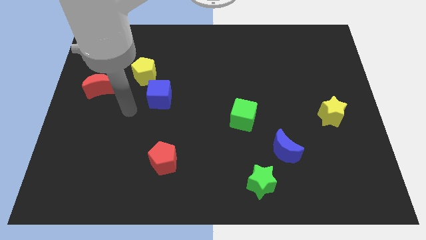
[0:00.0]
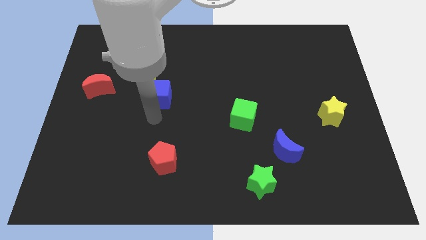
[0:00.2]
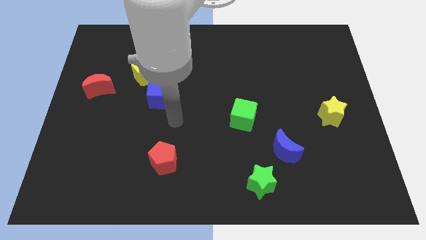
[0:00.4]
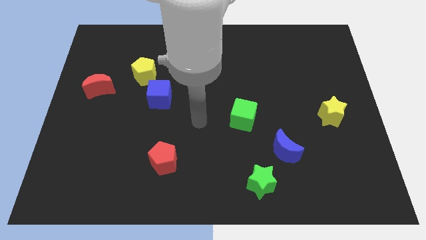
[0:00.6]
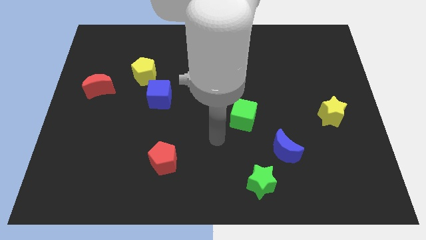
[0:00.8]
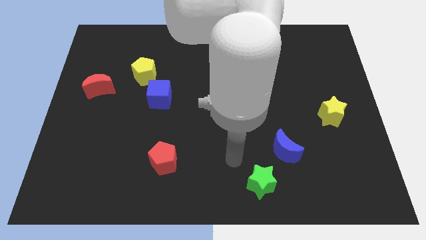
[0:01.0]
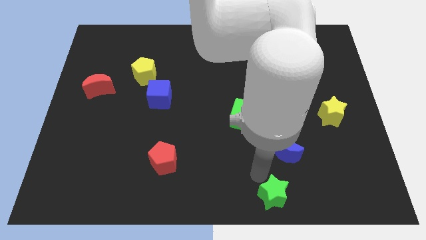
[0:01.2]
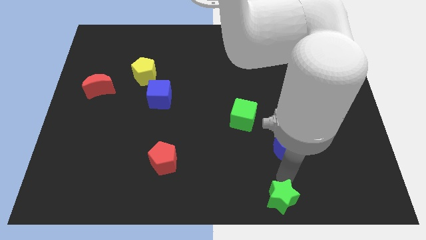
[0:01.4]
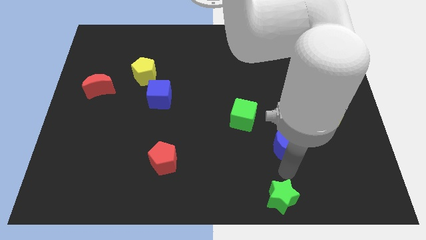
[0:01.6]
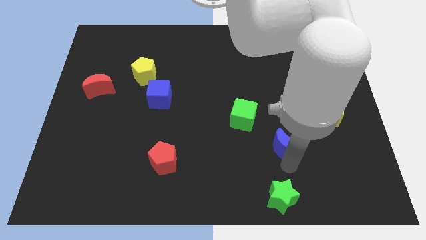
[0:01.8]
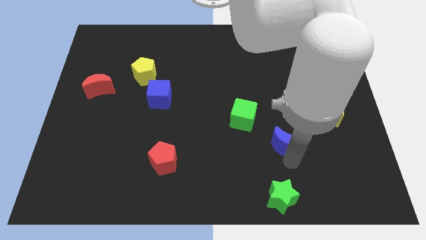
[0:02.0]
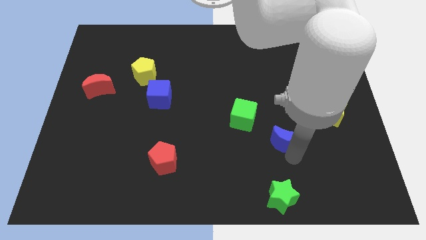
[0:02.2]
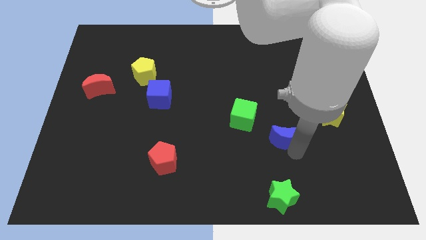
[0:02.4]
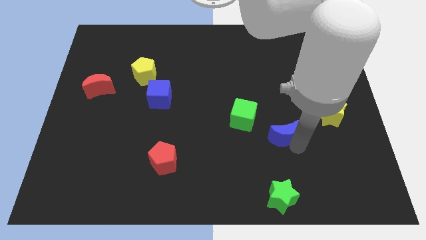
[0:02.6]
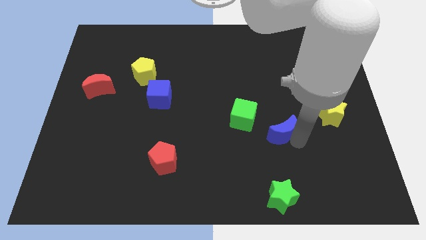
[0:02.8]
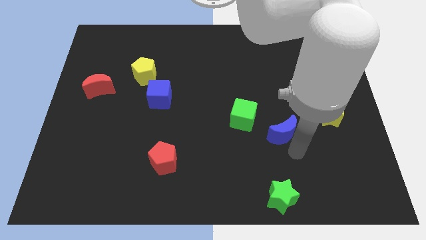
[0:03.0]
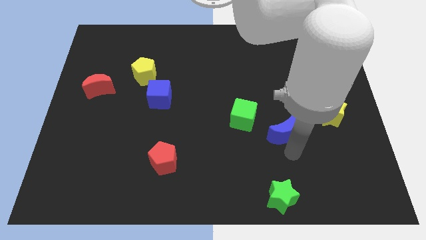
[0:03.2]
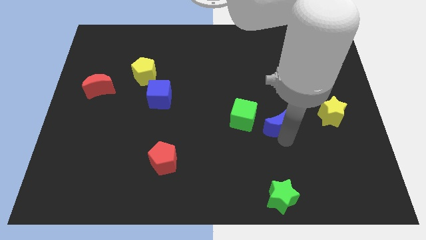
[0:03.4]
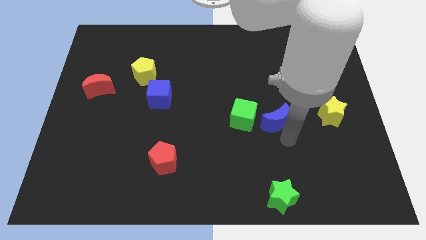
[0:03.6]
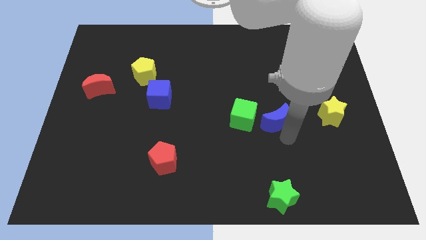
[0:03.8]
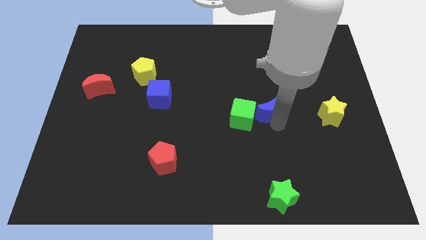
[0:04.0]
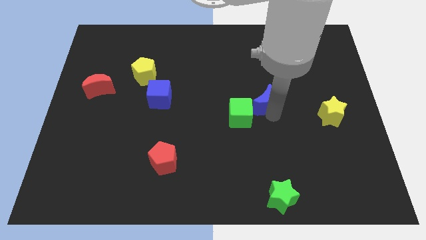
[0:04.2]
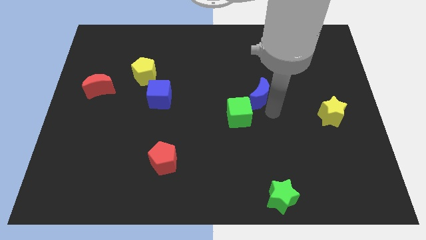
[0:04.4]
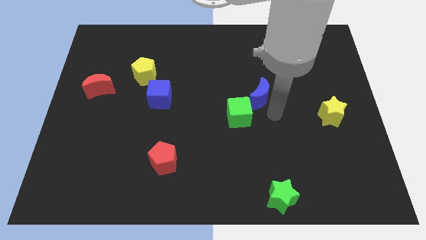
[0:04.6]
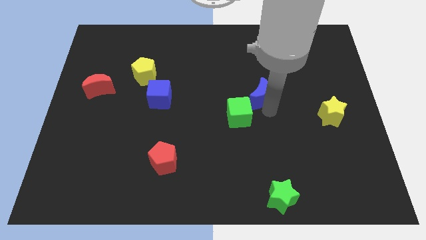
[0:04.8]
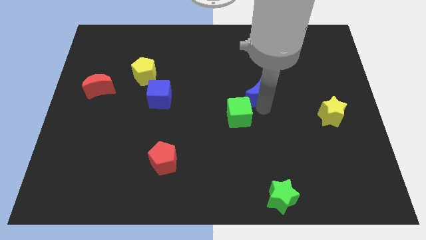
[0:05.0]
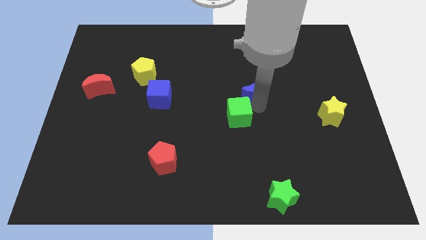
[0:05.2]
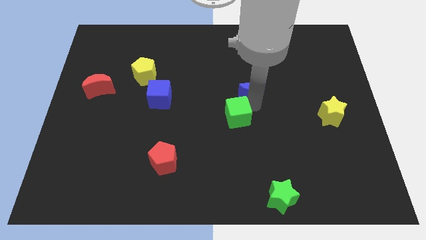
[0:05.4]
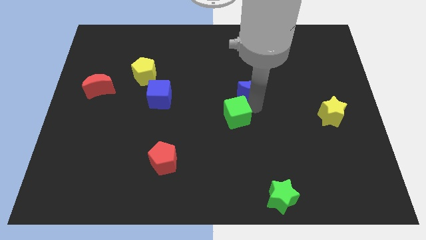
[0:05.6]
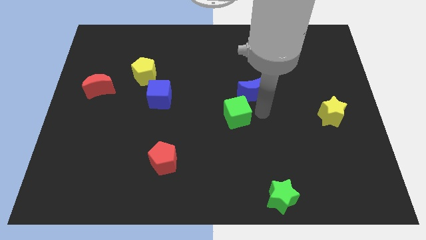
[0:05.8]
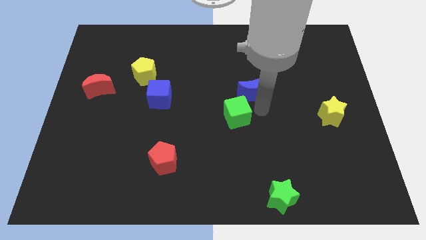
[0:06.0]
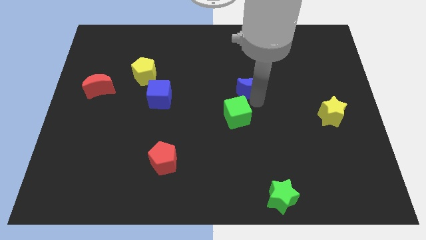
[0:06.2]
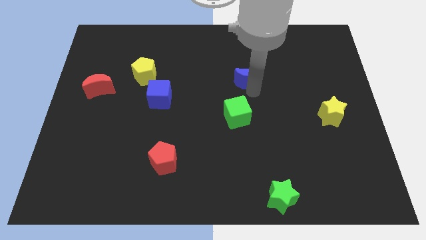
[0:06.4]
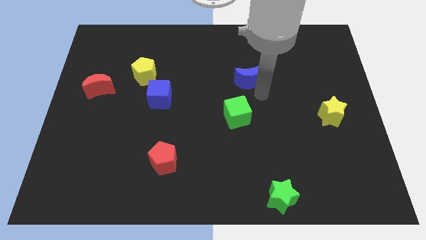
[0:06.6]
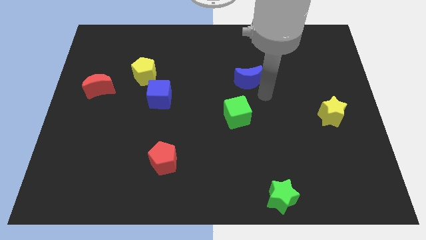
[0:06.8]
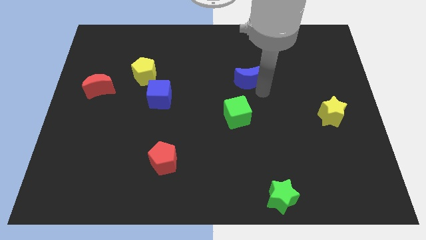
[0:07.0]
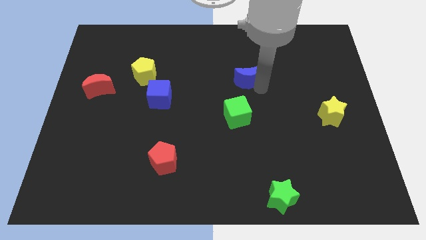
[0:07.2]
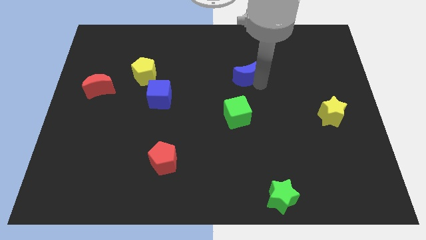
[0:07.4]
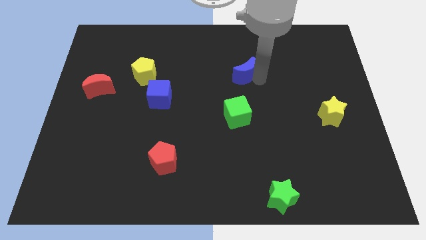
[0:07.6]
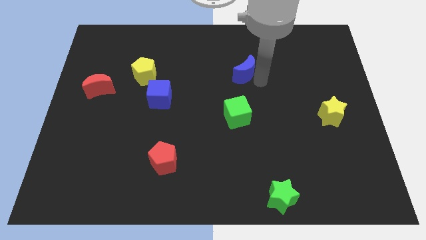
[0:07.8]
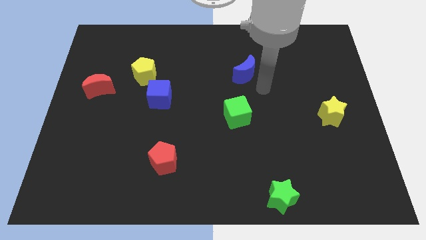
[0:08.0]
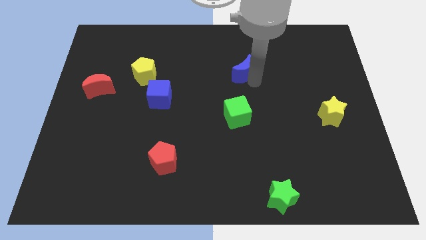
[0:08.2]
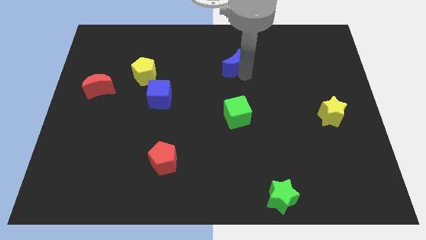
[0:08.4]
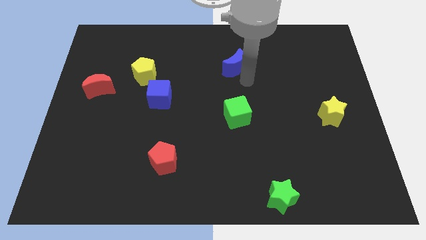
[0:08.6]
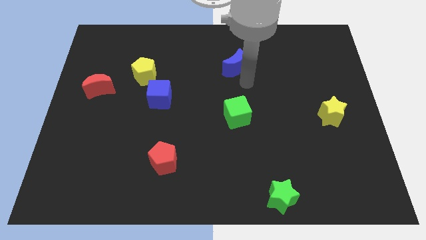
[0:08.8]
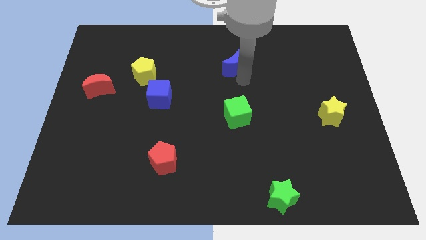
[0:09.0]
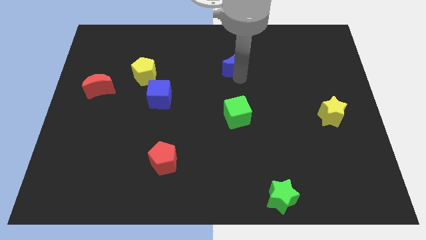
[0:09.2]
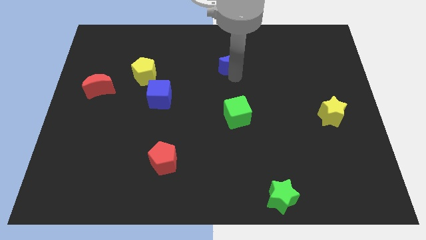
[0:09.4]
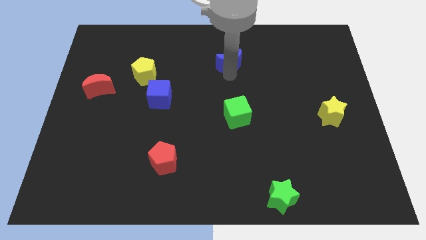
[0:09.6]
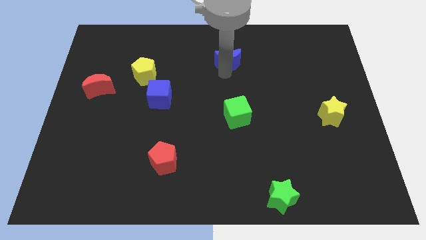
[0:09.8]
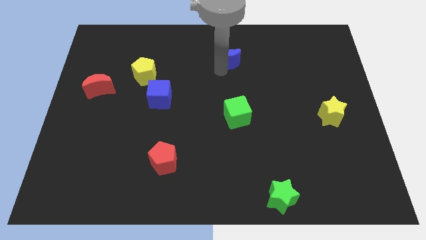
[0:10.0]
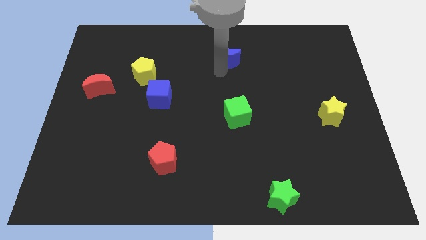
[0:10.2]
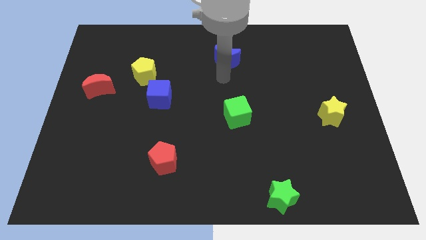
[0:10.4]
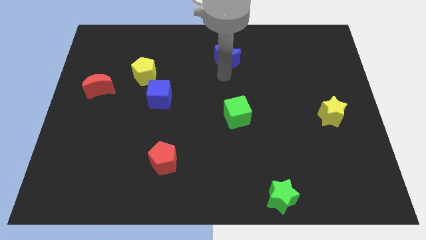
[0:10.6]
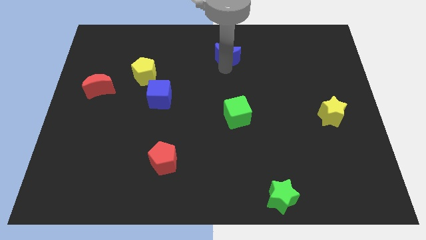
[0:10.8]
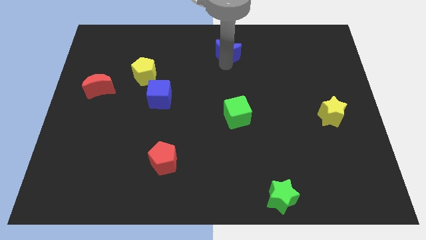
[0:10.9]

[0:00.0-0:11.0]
move the blue moon to the towards your base

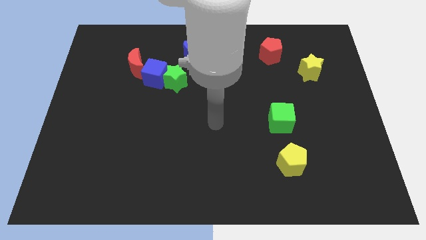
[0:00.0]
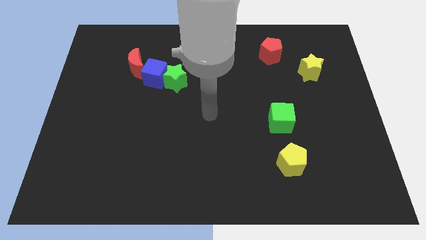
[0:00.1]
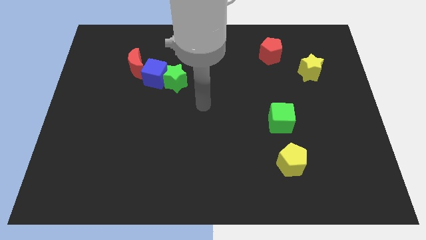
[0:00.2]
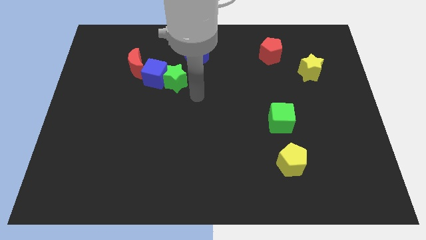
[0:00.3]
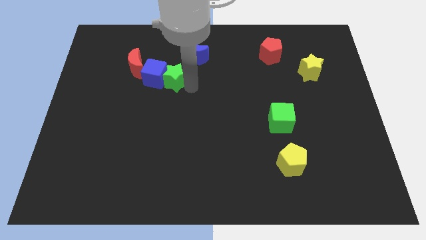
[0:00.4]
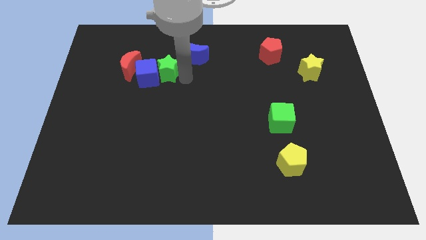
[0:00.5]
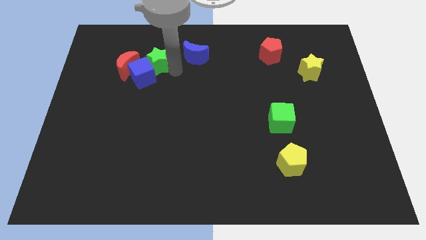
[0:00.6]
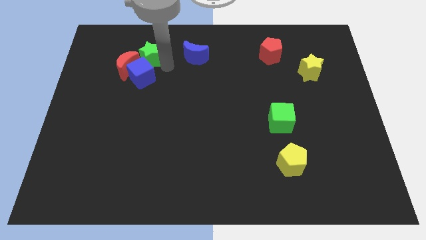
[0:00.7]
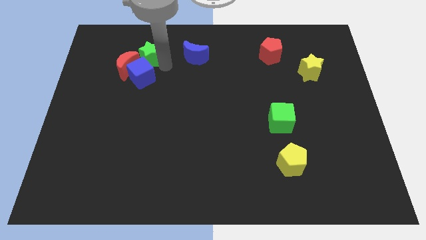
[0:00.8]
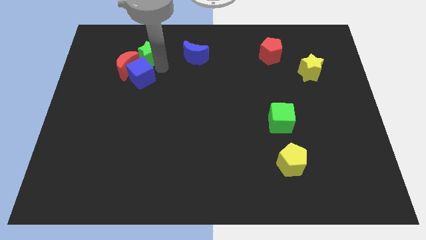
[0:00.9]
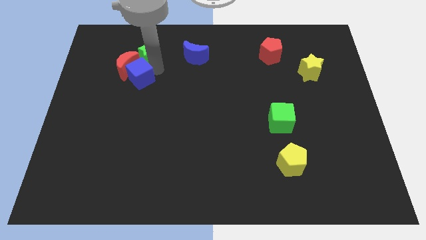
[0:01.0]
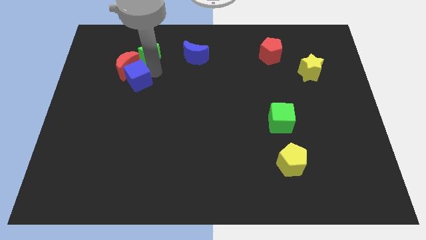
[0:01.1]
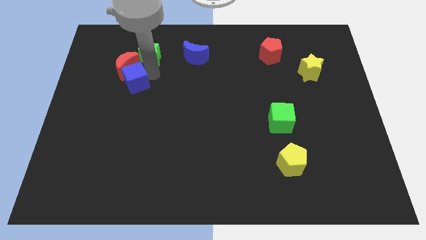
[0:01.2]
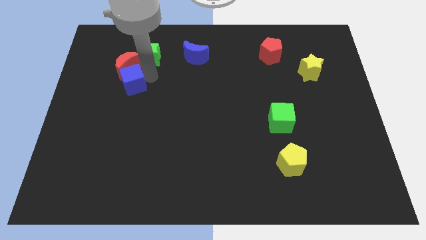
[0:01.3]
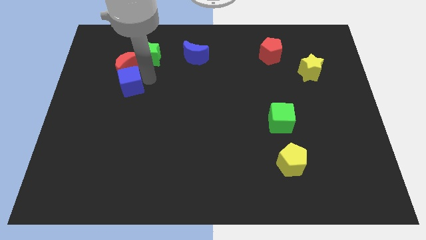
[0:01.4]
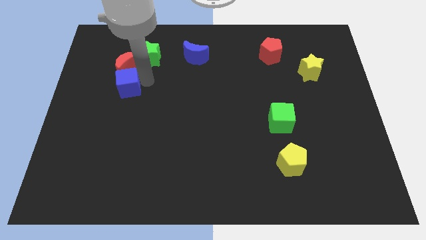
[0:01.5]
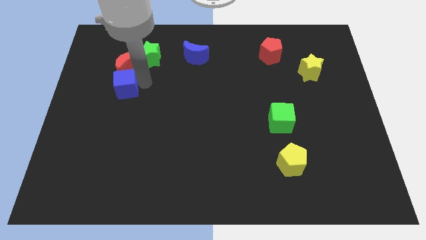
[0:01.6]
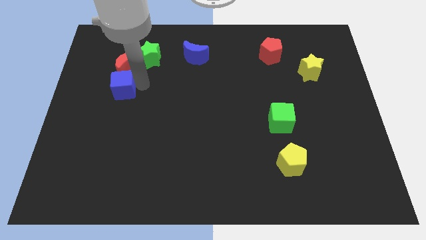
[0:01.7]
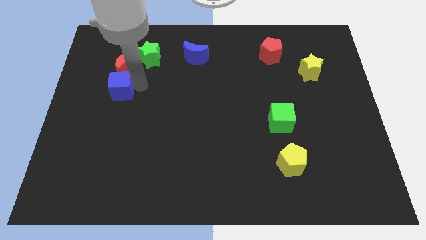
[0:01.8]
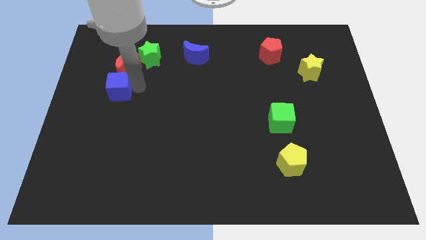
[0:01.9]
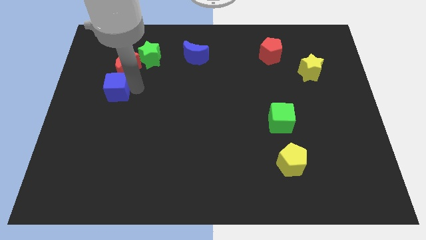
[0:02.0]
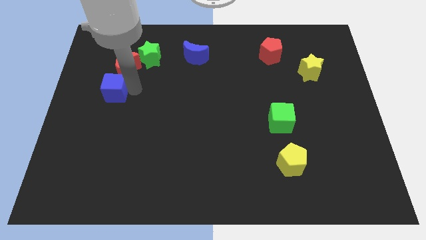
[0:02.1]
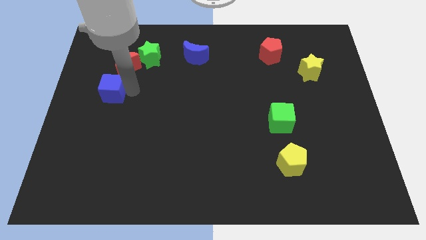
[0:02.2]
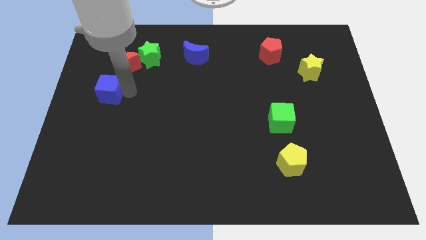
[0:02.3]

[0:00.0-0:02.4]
push the blue cube to the left side of the board
